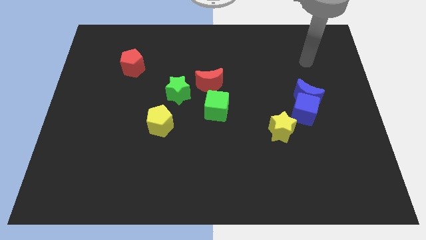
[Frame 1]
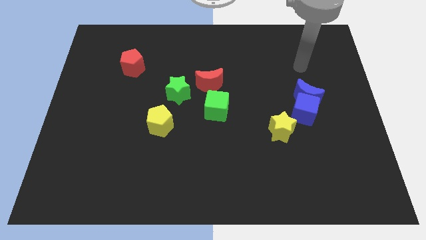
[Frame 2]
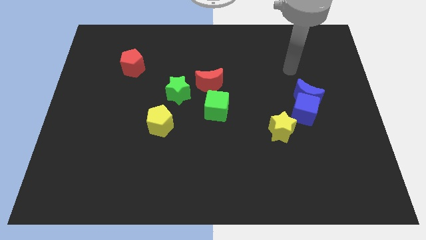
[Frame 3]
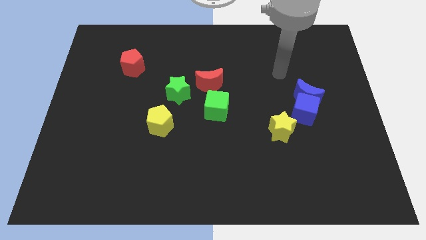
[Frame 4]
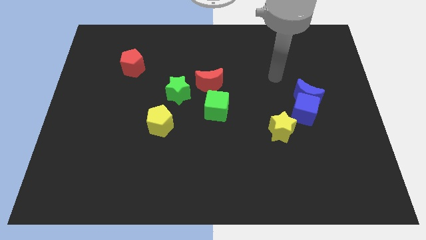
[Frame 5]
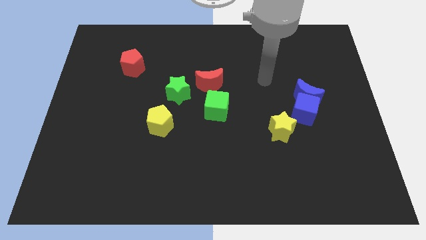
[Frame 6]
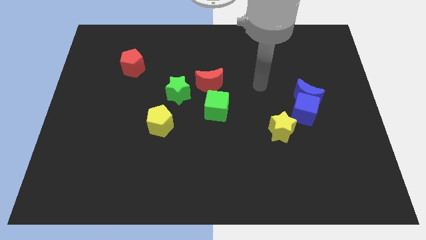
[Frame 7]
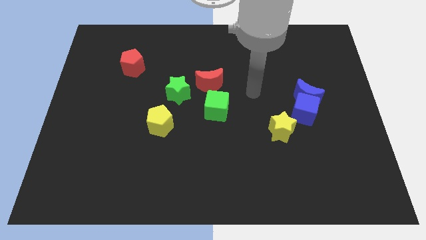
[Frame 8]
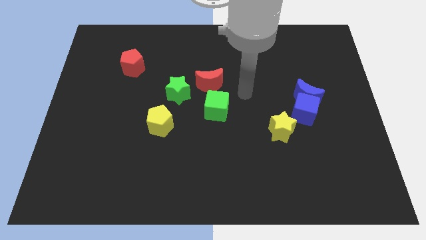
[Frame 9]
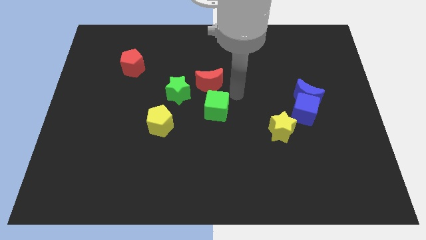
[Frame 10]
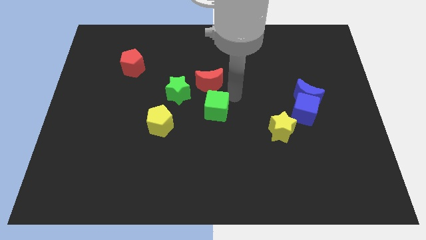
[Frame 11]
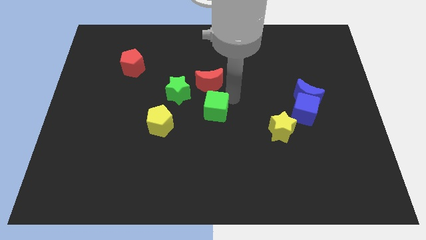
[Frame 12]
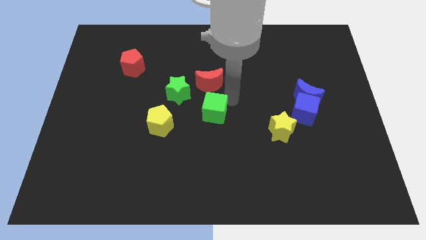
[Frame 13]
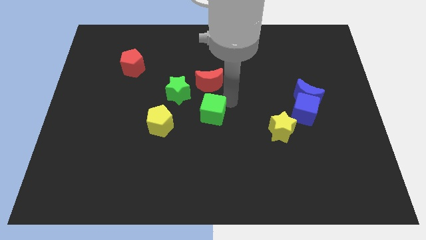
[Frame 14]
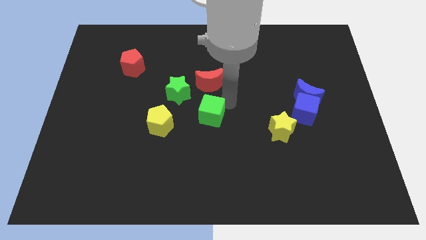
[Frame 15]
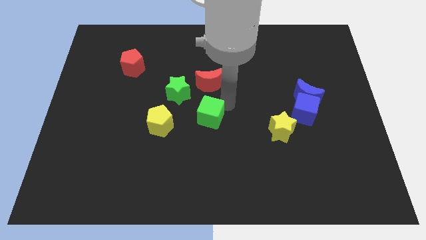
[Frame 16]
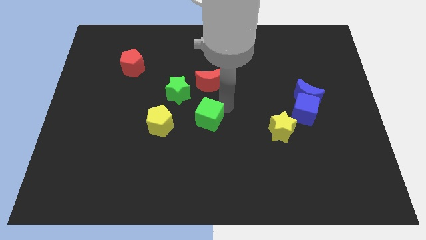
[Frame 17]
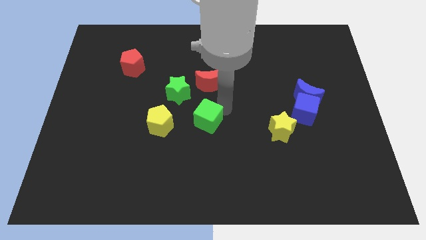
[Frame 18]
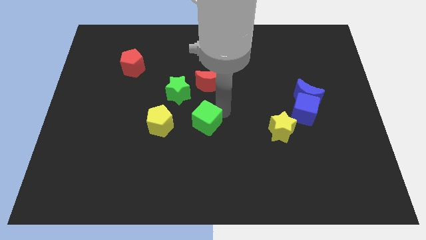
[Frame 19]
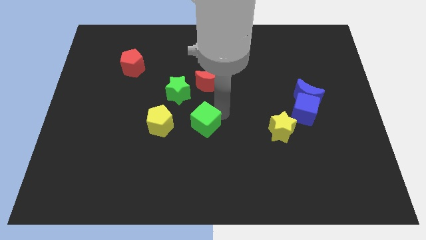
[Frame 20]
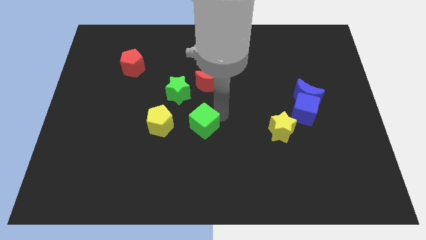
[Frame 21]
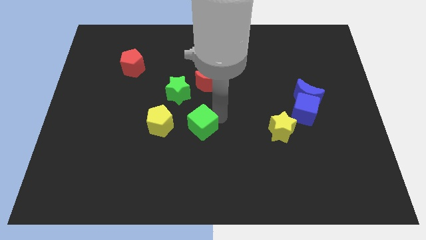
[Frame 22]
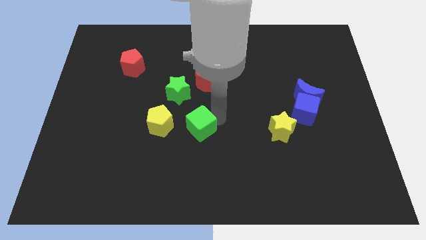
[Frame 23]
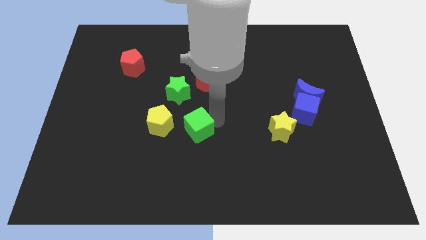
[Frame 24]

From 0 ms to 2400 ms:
slightly push the green cube down and to the left diagonally

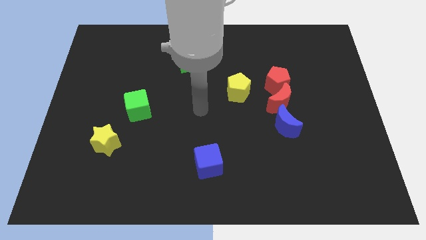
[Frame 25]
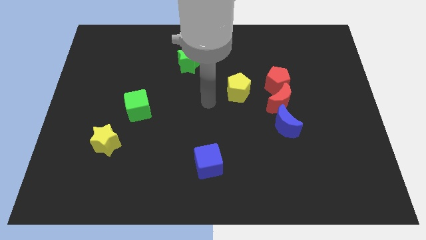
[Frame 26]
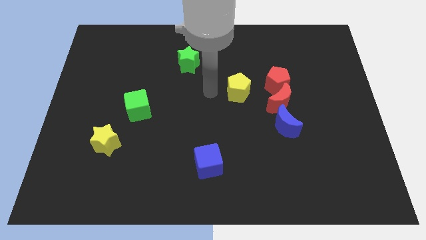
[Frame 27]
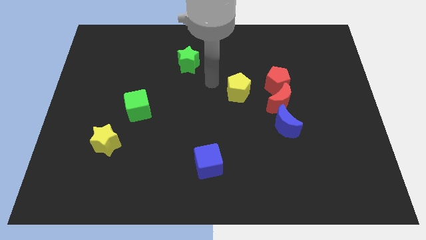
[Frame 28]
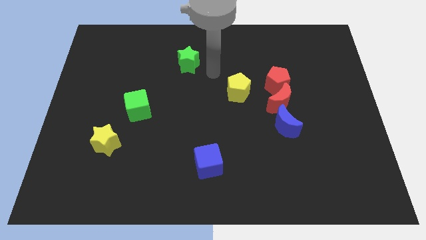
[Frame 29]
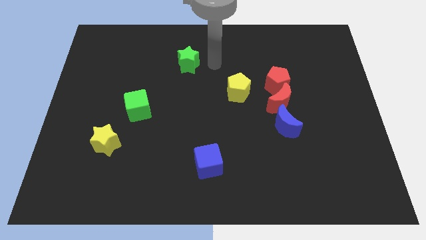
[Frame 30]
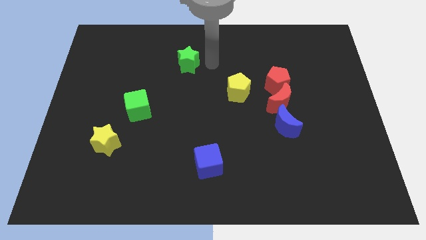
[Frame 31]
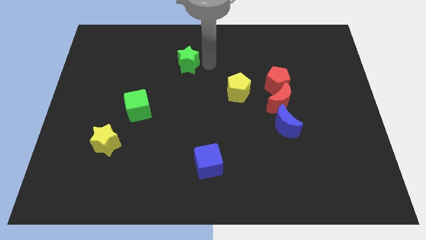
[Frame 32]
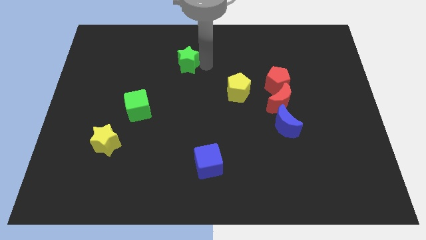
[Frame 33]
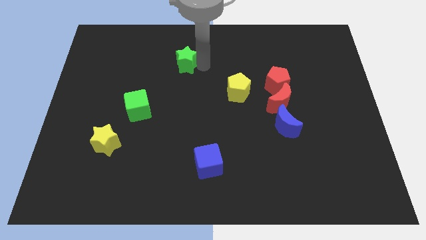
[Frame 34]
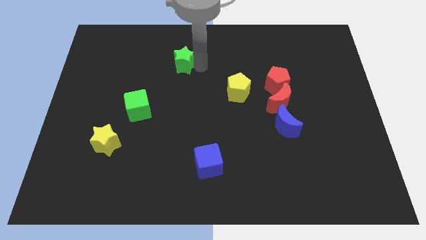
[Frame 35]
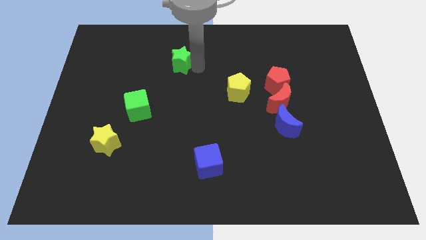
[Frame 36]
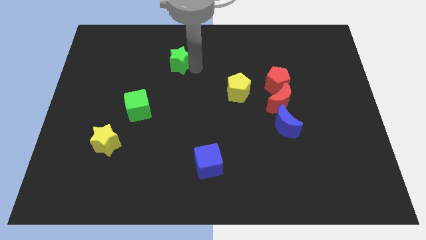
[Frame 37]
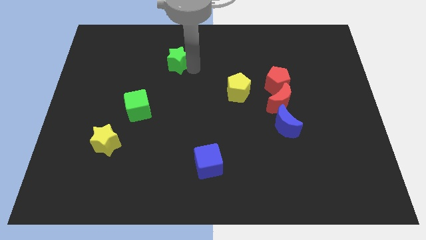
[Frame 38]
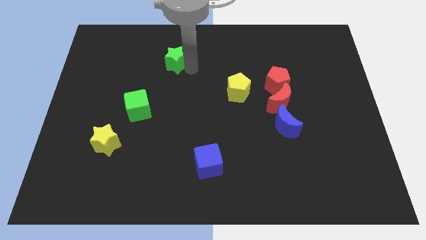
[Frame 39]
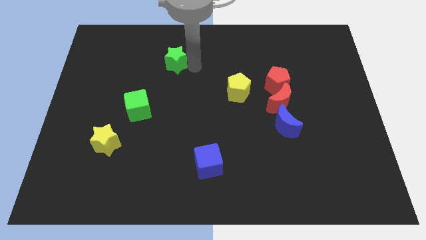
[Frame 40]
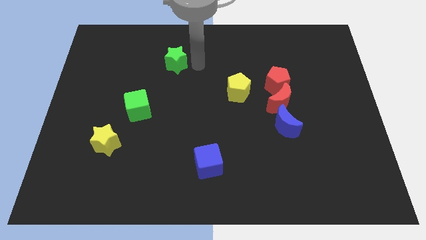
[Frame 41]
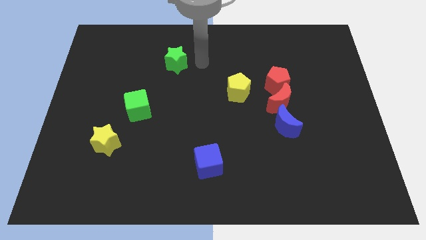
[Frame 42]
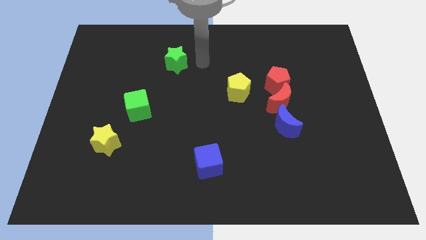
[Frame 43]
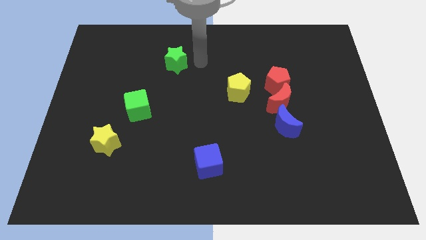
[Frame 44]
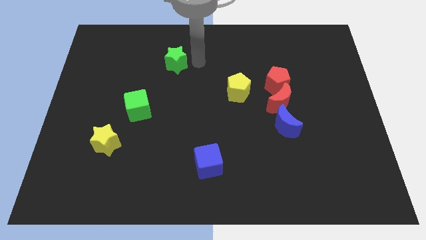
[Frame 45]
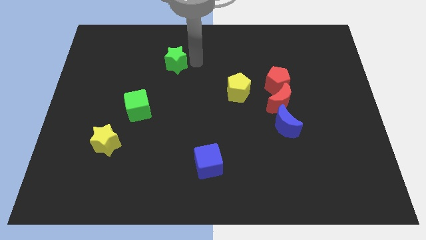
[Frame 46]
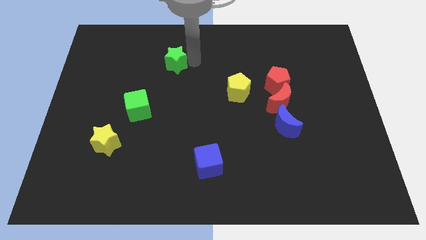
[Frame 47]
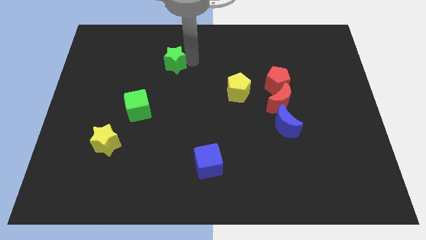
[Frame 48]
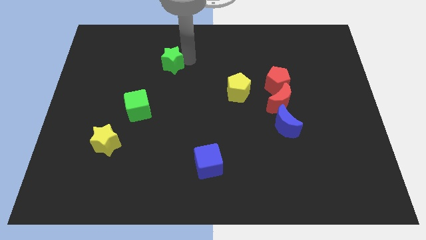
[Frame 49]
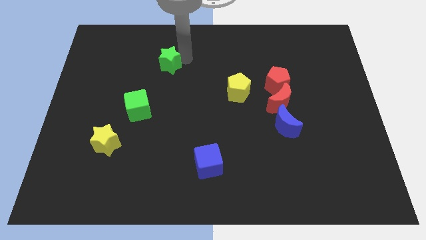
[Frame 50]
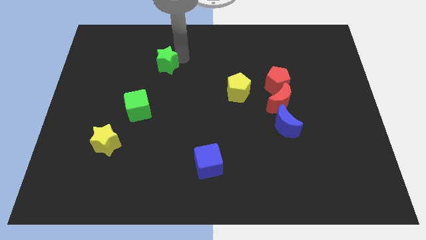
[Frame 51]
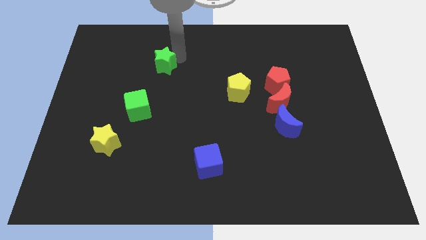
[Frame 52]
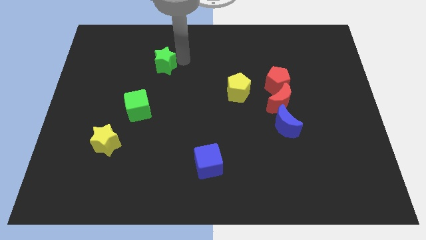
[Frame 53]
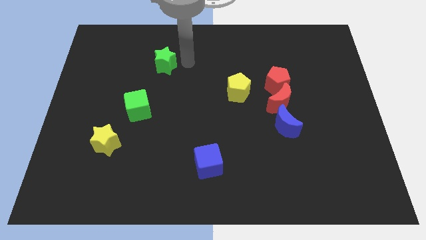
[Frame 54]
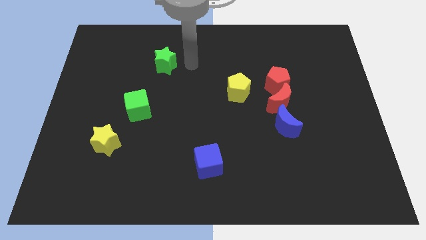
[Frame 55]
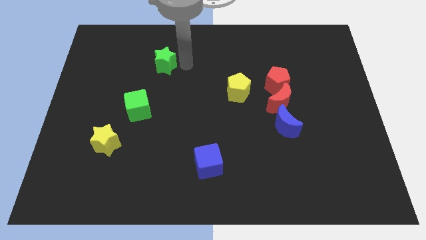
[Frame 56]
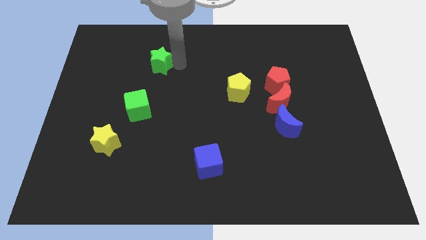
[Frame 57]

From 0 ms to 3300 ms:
push the green star left somewhat

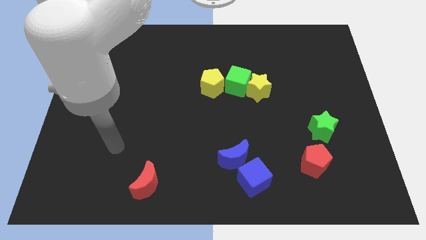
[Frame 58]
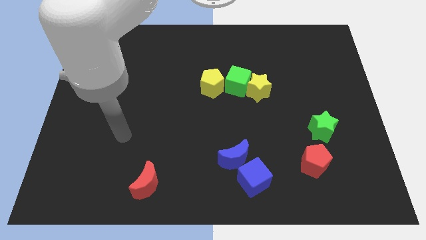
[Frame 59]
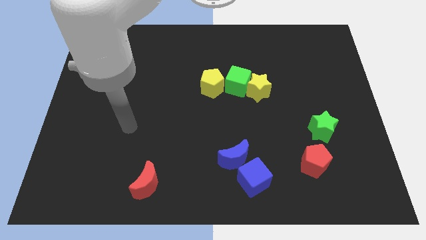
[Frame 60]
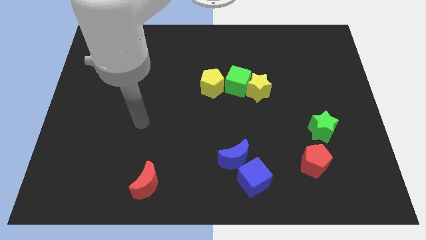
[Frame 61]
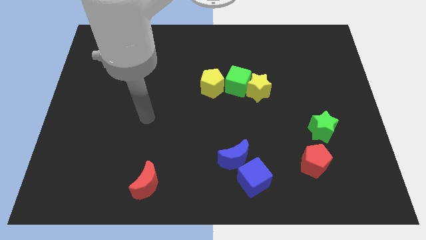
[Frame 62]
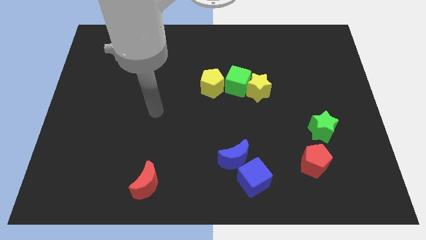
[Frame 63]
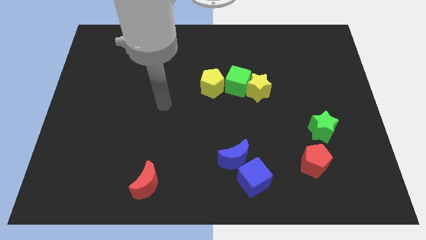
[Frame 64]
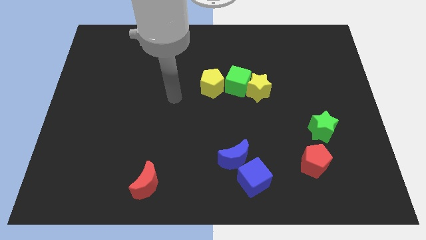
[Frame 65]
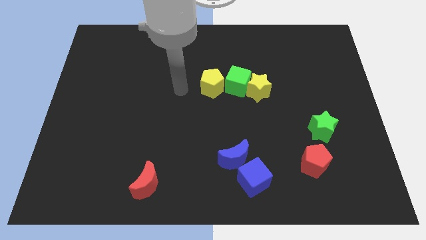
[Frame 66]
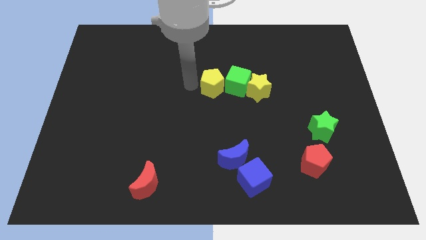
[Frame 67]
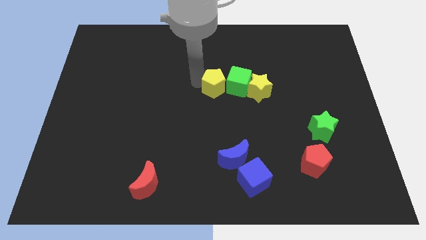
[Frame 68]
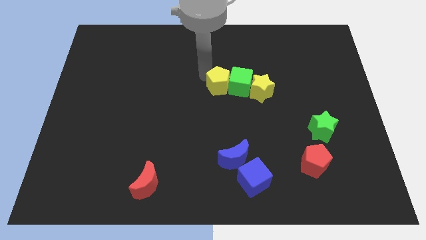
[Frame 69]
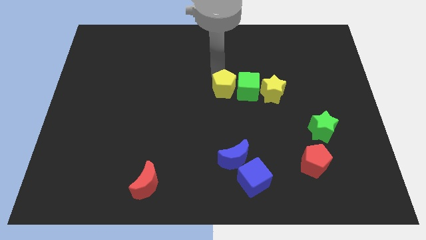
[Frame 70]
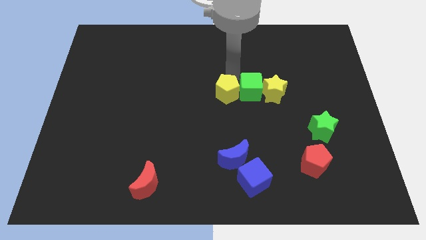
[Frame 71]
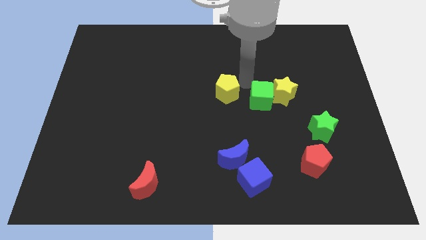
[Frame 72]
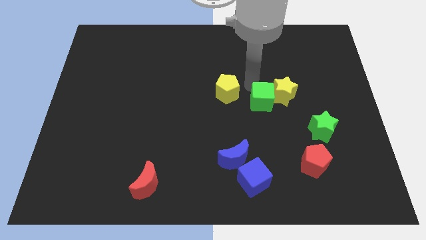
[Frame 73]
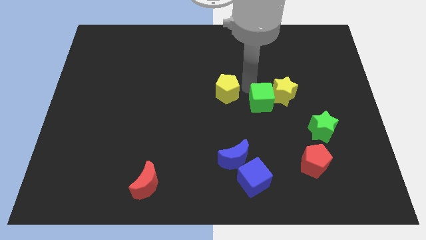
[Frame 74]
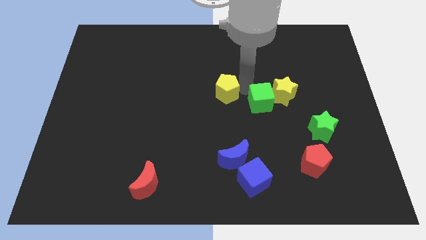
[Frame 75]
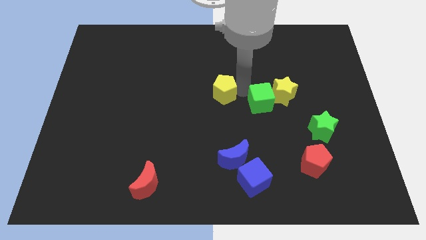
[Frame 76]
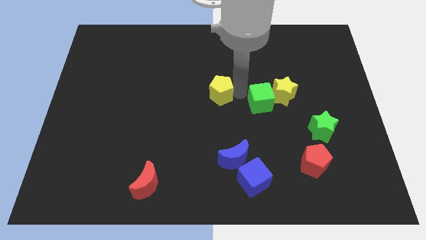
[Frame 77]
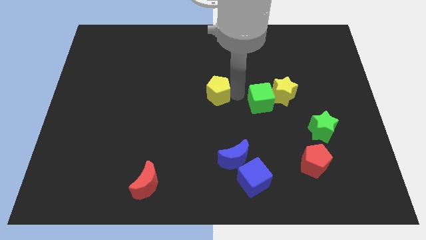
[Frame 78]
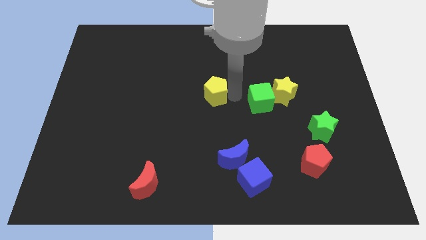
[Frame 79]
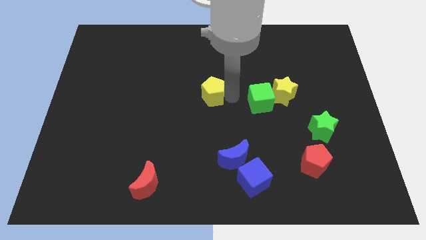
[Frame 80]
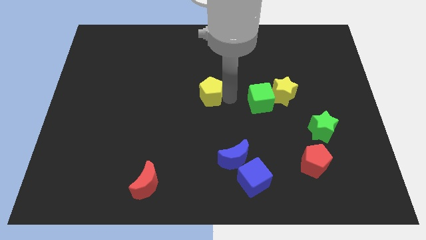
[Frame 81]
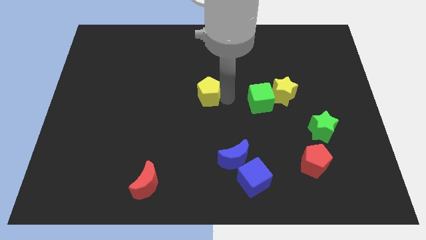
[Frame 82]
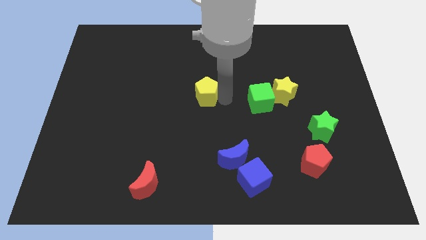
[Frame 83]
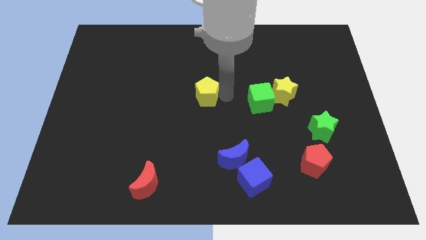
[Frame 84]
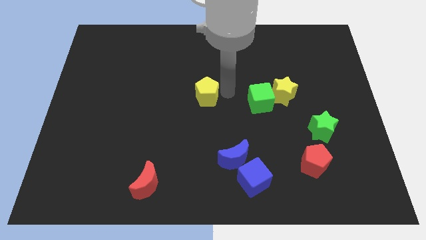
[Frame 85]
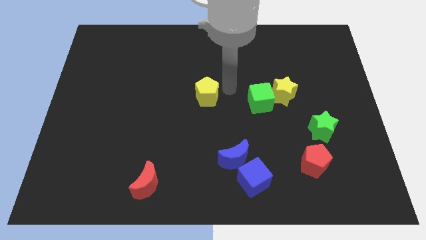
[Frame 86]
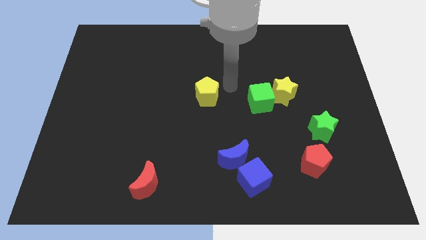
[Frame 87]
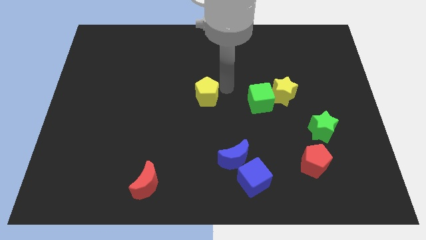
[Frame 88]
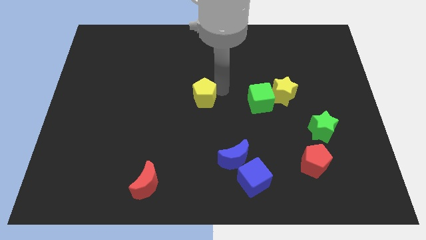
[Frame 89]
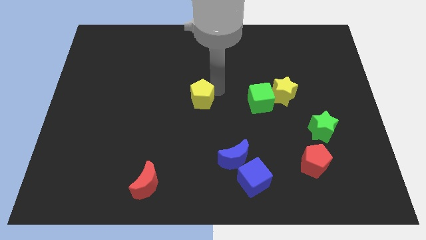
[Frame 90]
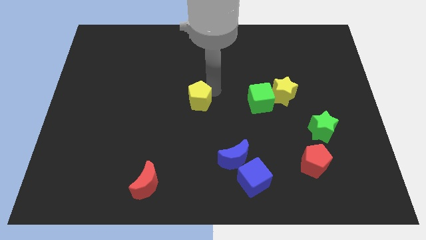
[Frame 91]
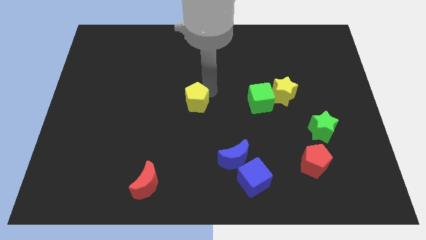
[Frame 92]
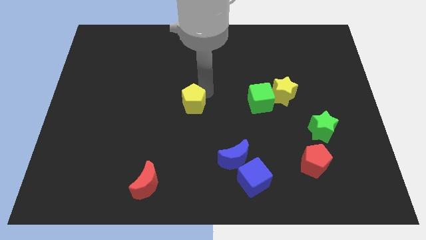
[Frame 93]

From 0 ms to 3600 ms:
move the yellow pentagon downwards and left diagonally slightly
